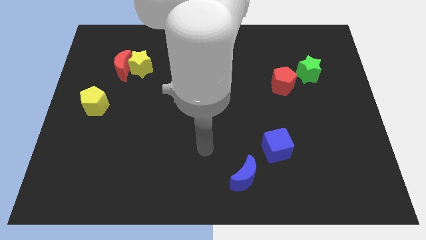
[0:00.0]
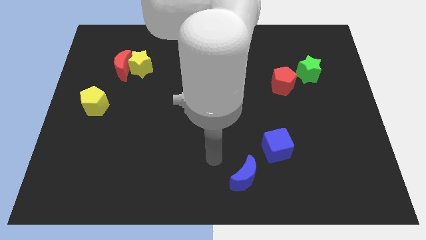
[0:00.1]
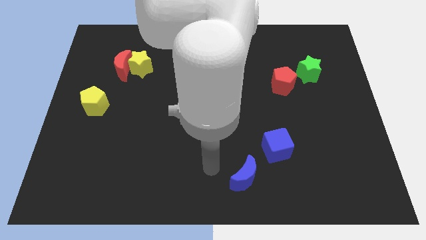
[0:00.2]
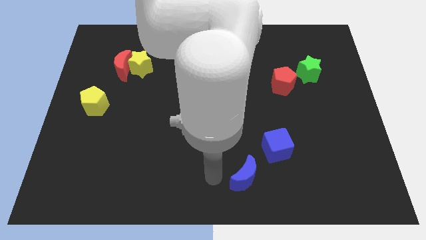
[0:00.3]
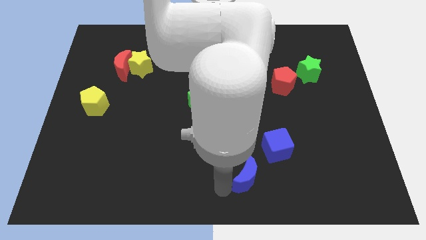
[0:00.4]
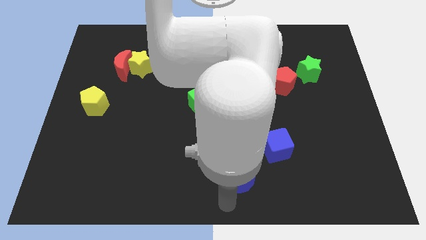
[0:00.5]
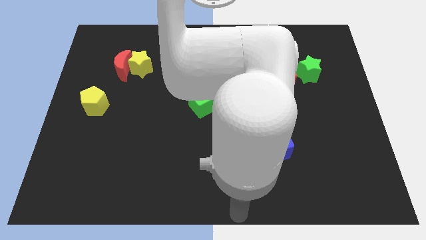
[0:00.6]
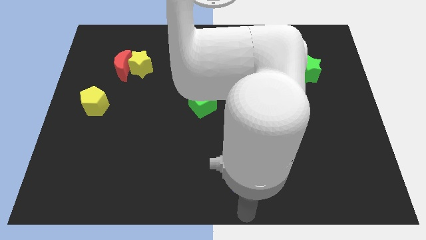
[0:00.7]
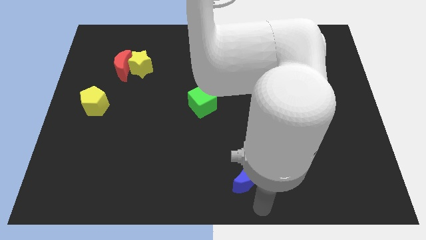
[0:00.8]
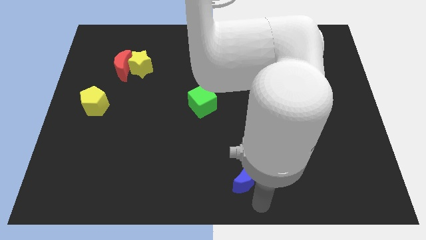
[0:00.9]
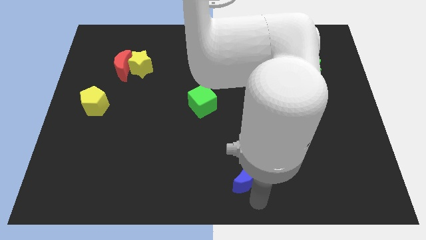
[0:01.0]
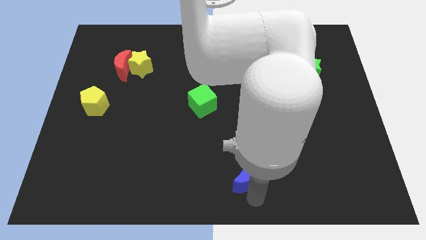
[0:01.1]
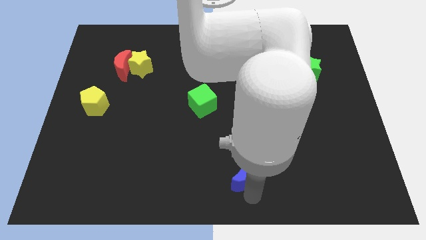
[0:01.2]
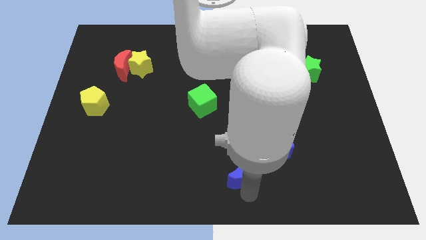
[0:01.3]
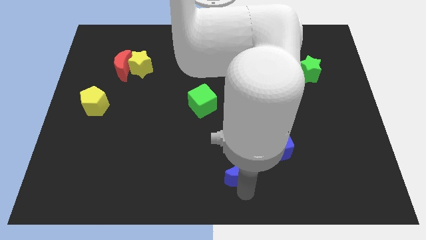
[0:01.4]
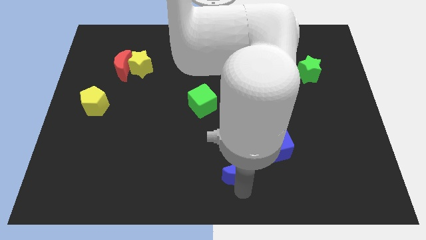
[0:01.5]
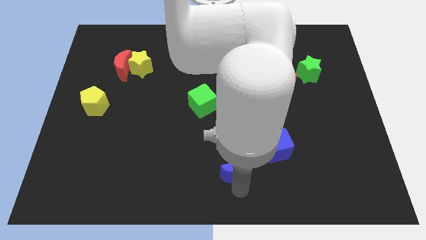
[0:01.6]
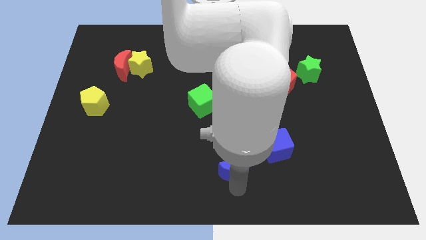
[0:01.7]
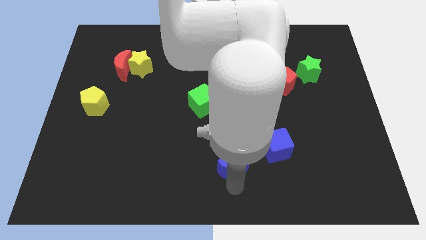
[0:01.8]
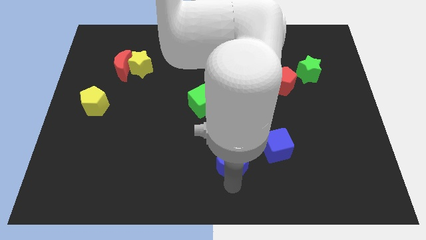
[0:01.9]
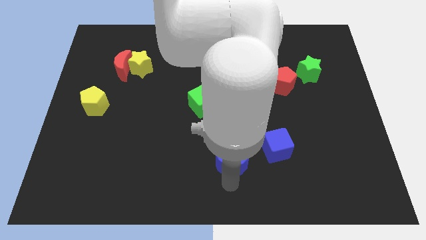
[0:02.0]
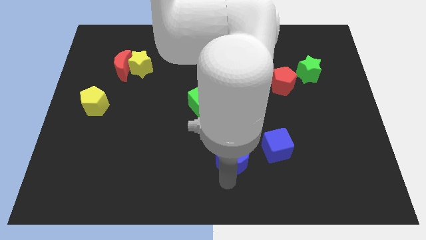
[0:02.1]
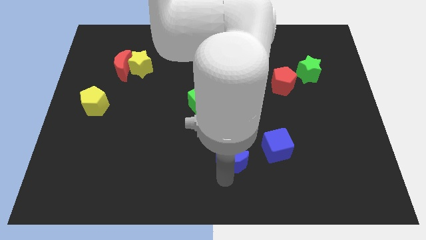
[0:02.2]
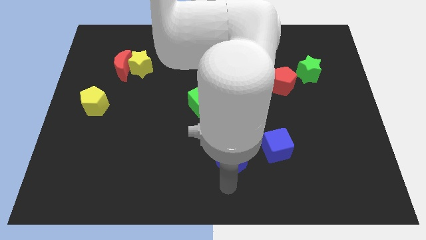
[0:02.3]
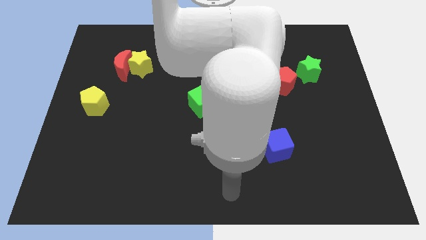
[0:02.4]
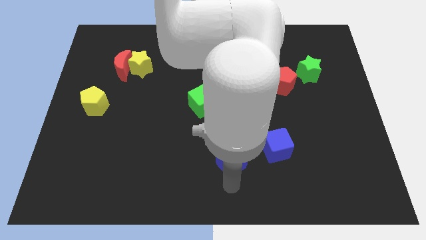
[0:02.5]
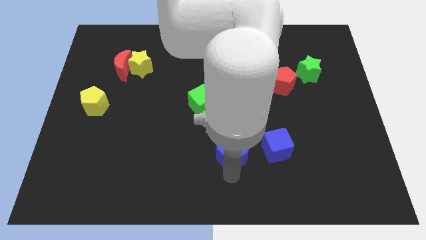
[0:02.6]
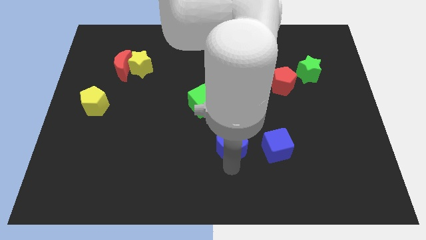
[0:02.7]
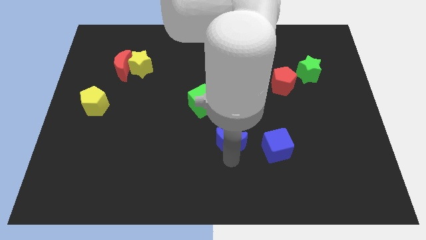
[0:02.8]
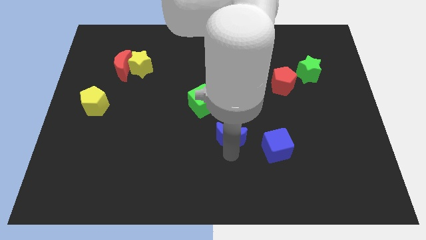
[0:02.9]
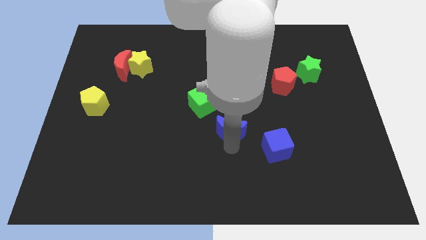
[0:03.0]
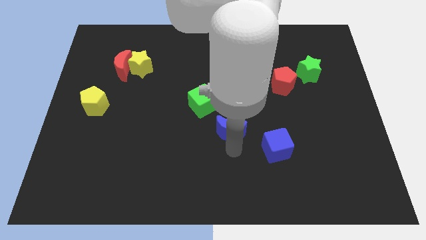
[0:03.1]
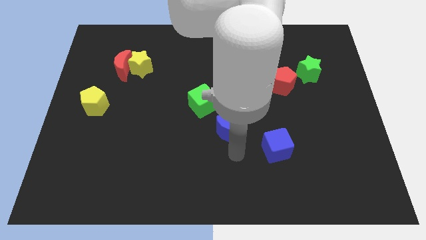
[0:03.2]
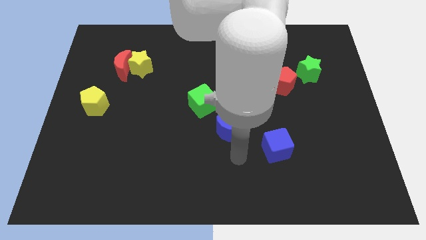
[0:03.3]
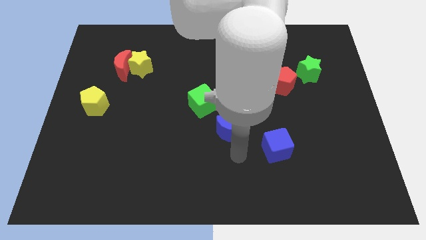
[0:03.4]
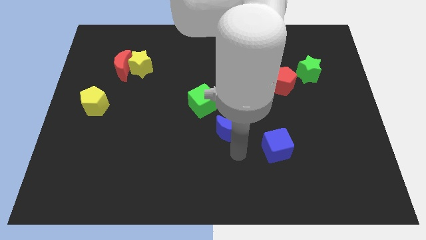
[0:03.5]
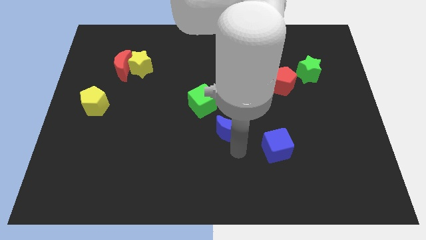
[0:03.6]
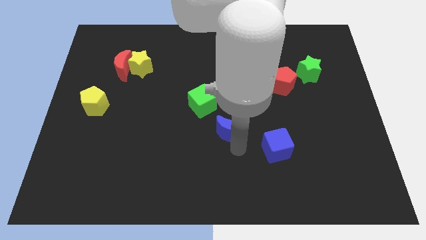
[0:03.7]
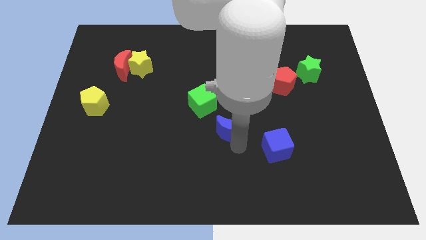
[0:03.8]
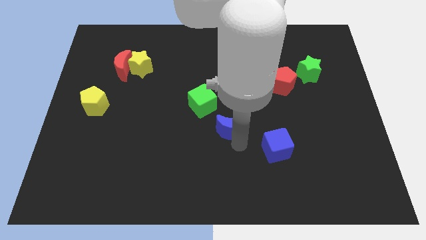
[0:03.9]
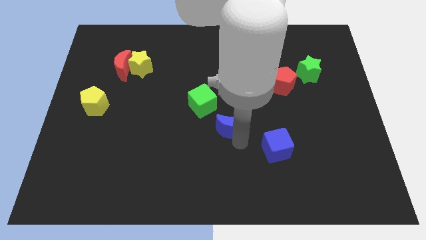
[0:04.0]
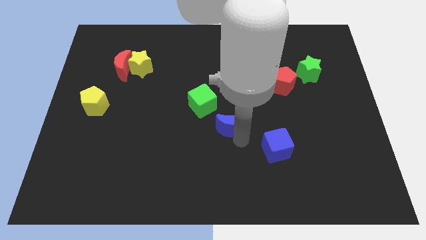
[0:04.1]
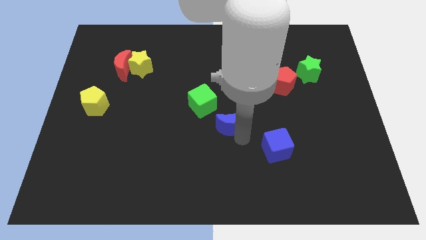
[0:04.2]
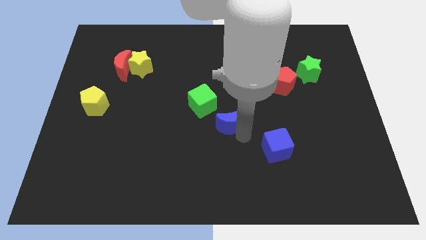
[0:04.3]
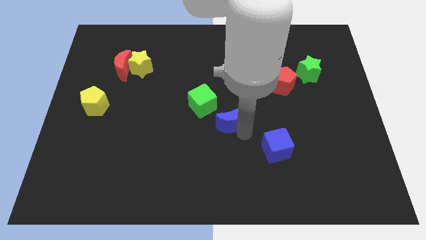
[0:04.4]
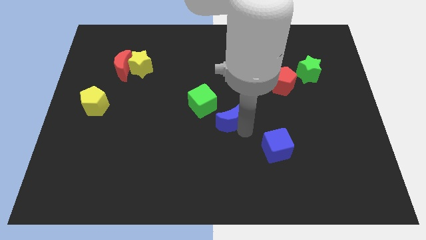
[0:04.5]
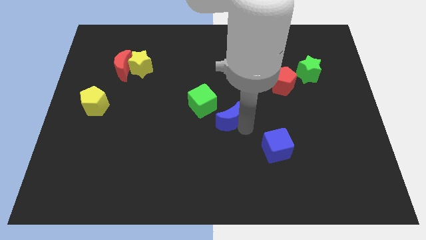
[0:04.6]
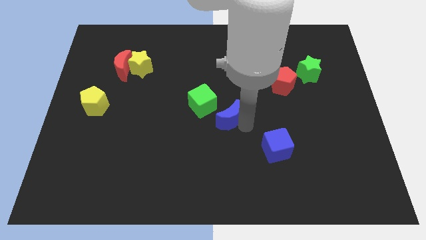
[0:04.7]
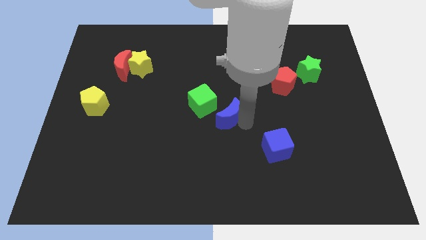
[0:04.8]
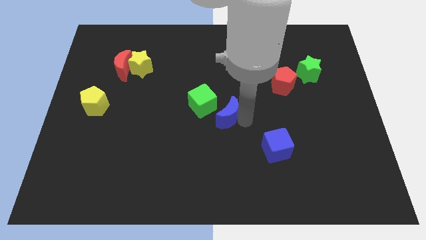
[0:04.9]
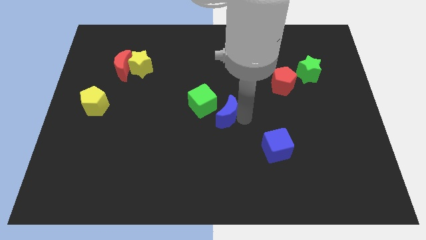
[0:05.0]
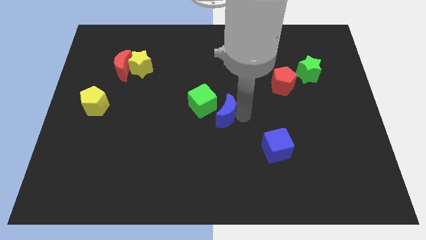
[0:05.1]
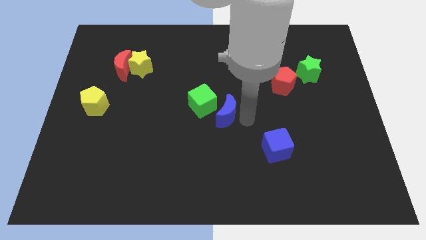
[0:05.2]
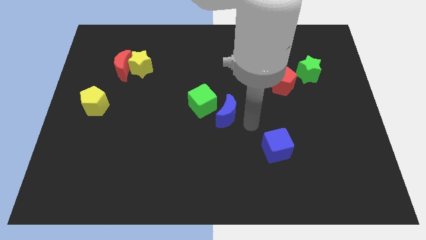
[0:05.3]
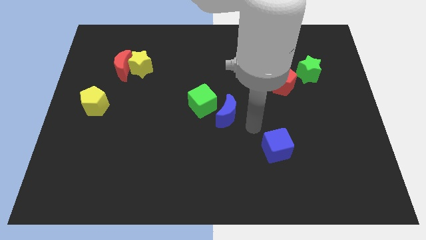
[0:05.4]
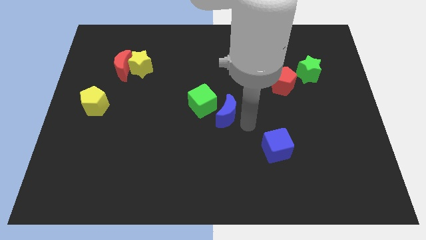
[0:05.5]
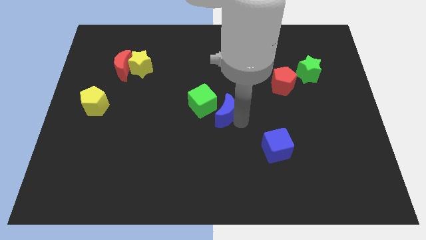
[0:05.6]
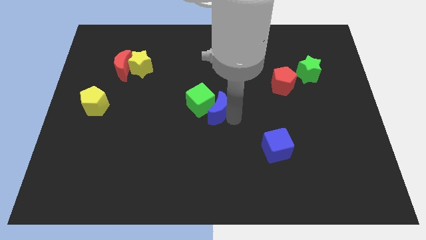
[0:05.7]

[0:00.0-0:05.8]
slide the blue moon towards the green cube

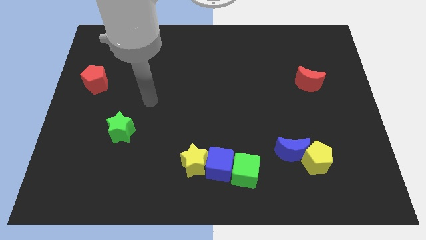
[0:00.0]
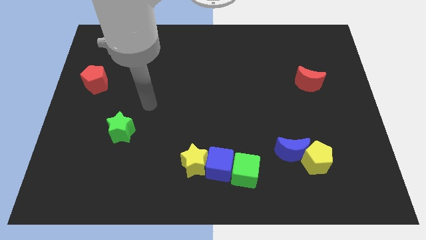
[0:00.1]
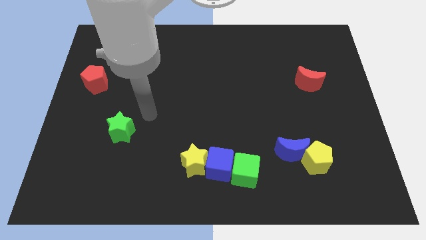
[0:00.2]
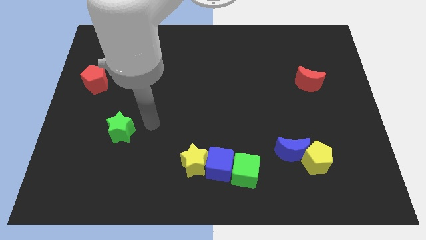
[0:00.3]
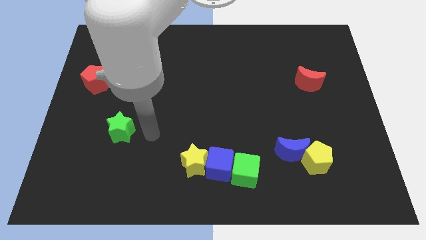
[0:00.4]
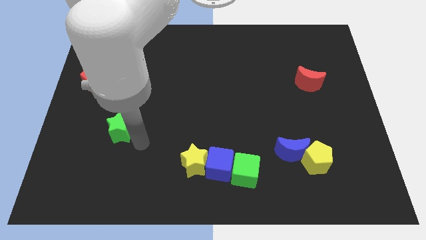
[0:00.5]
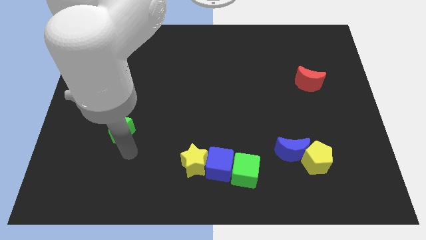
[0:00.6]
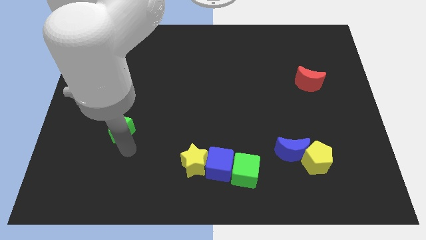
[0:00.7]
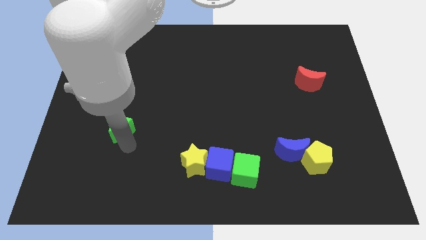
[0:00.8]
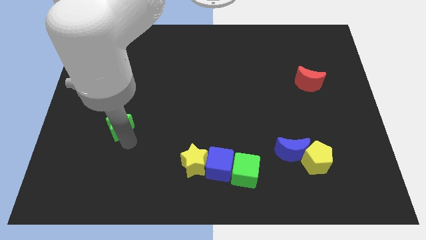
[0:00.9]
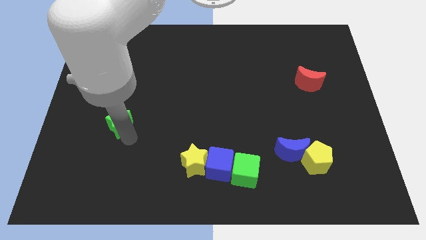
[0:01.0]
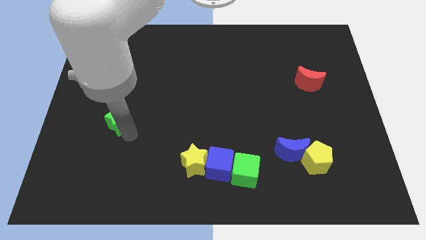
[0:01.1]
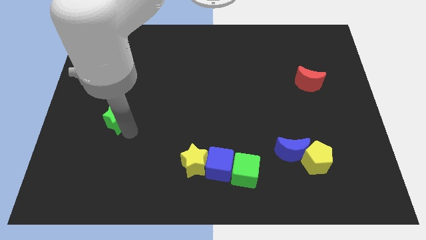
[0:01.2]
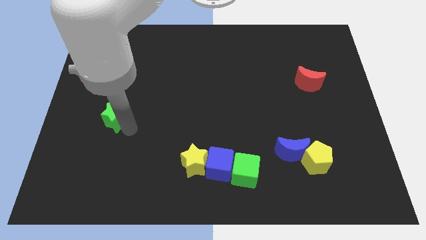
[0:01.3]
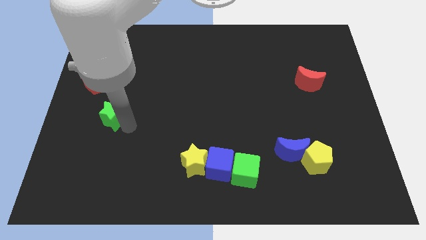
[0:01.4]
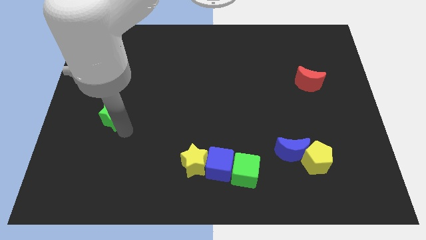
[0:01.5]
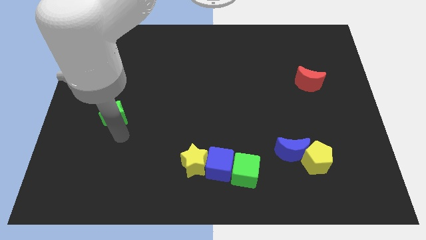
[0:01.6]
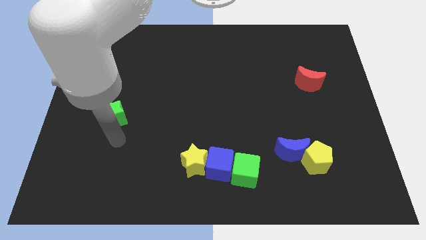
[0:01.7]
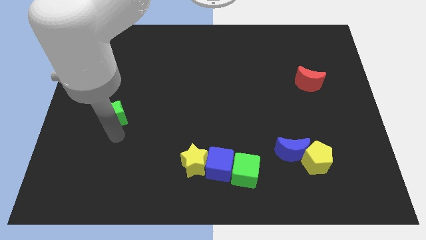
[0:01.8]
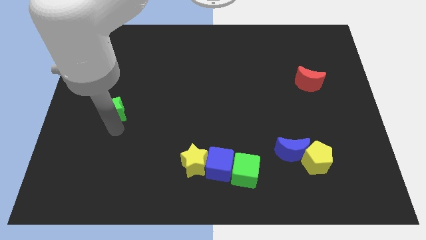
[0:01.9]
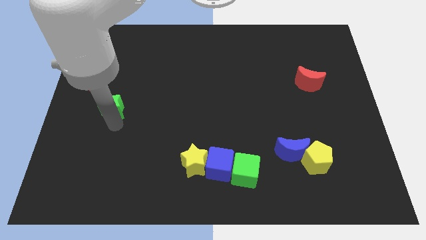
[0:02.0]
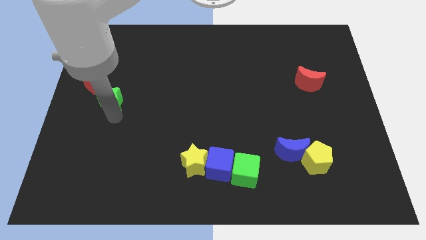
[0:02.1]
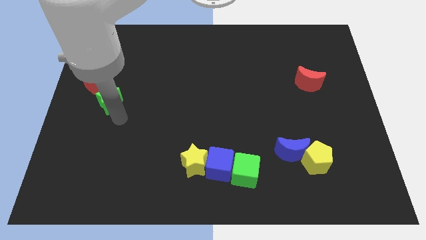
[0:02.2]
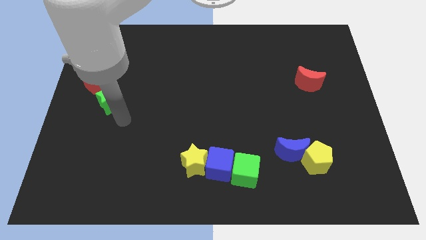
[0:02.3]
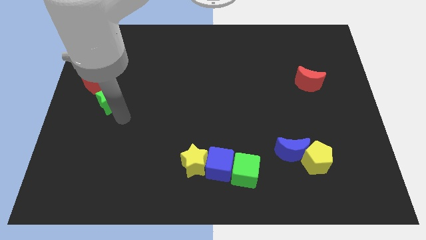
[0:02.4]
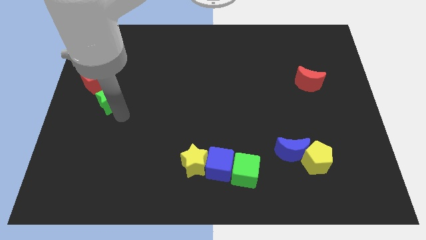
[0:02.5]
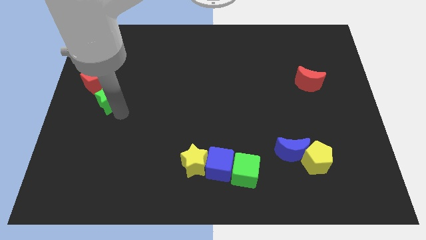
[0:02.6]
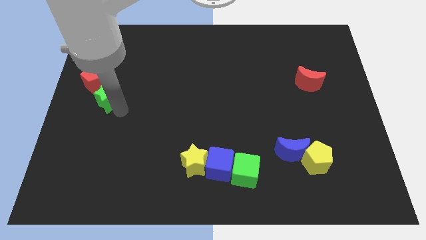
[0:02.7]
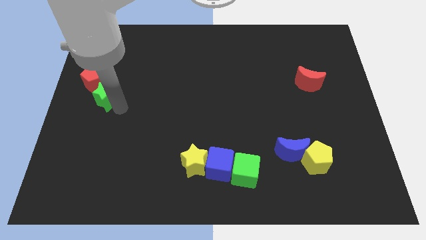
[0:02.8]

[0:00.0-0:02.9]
slide the green star towards the red pentagon
